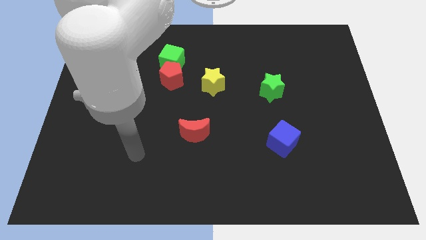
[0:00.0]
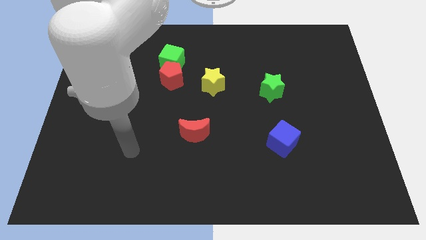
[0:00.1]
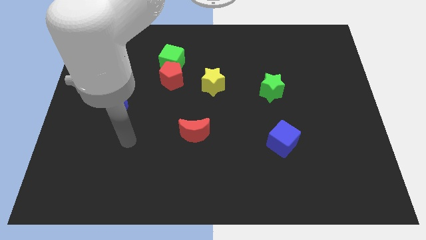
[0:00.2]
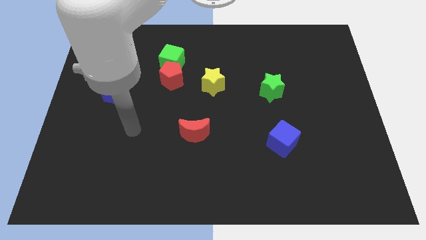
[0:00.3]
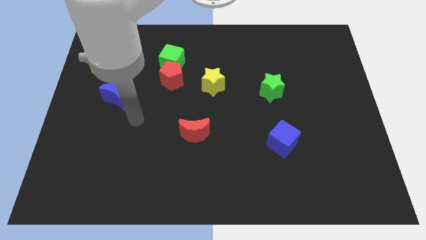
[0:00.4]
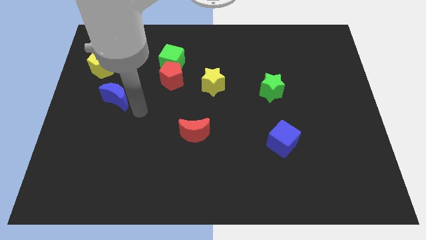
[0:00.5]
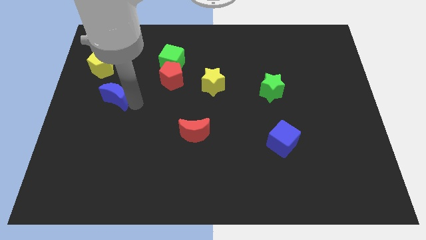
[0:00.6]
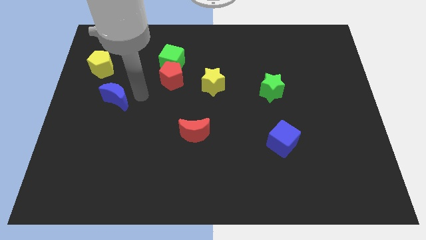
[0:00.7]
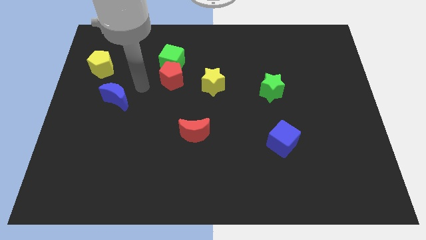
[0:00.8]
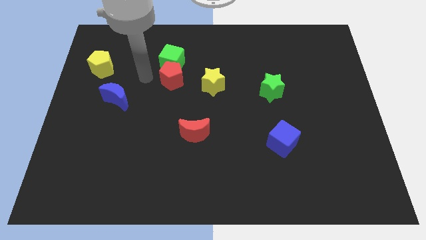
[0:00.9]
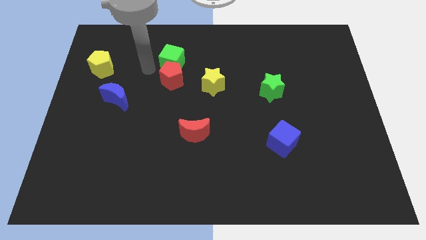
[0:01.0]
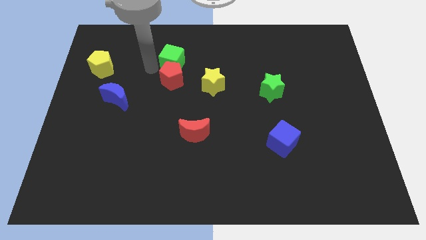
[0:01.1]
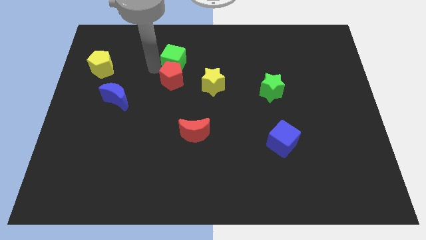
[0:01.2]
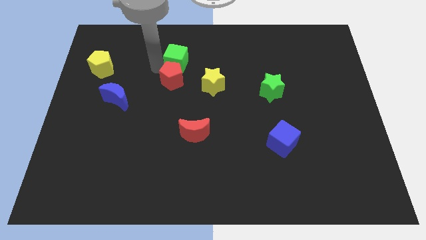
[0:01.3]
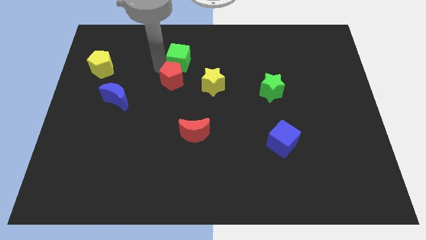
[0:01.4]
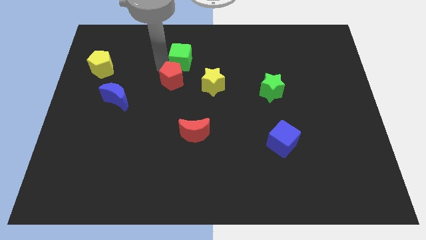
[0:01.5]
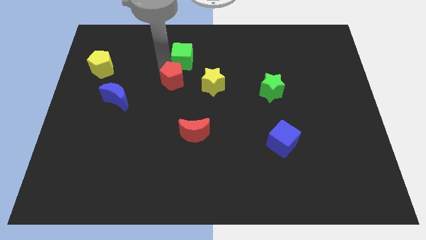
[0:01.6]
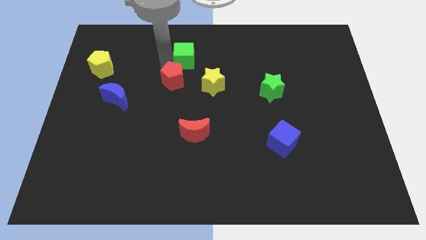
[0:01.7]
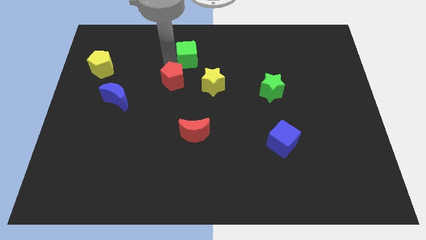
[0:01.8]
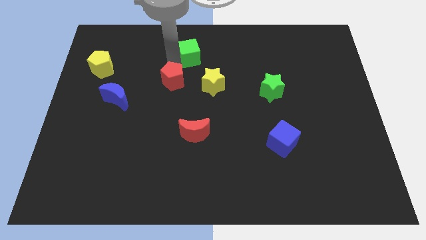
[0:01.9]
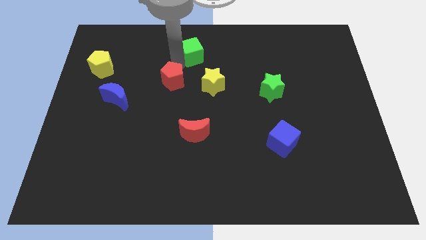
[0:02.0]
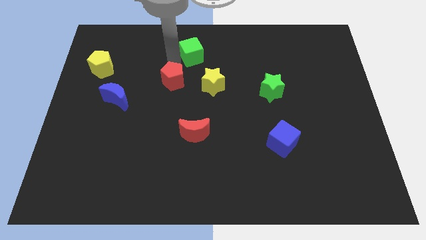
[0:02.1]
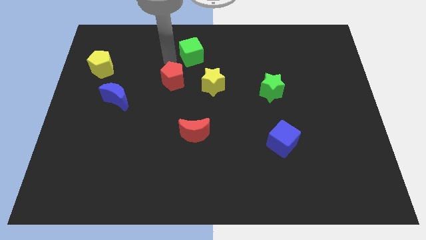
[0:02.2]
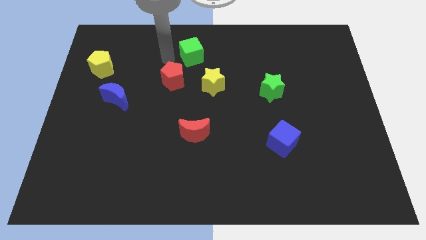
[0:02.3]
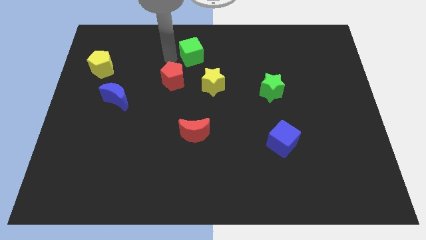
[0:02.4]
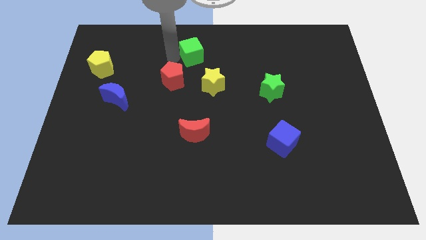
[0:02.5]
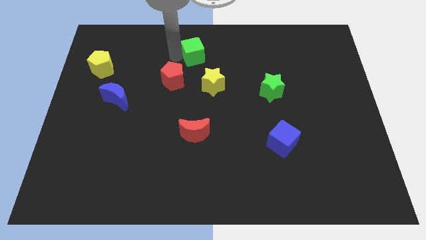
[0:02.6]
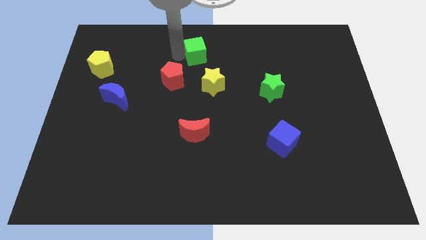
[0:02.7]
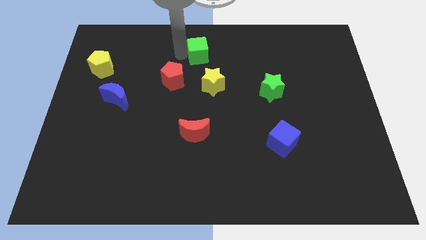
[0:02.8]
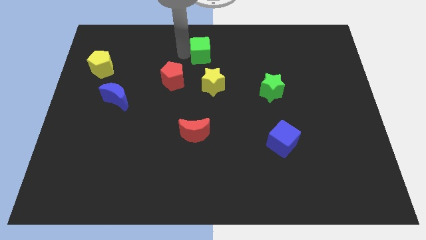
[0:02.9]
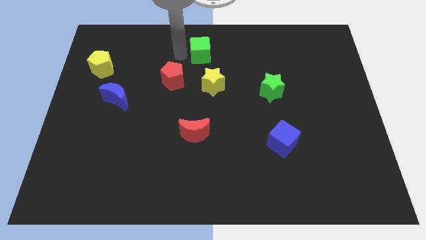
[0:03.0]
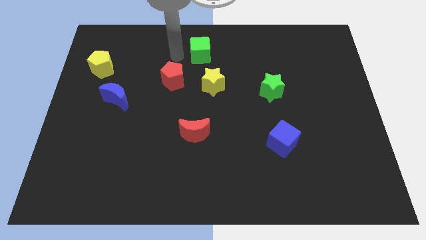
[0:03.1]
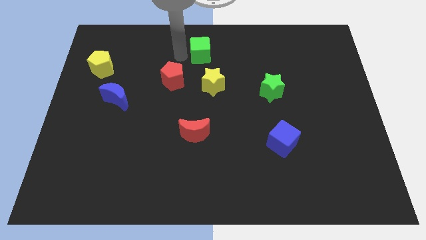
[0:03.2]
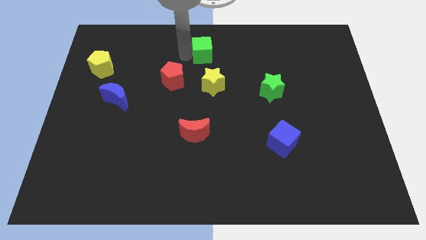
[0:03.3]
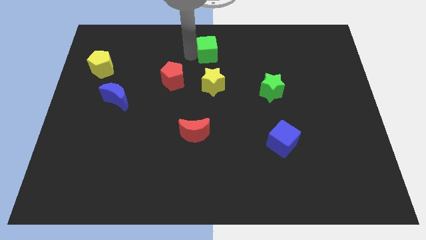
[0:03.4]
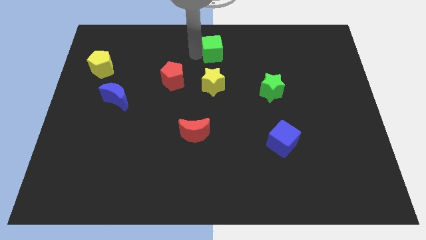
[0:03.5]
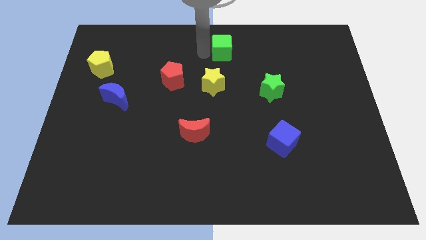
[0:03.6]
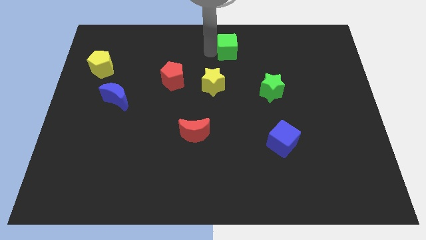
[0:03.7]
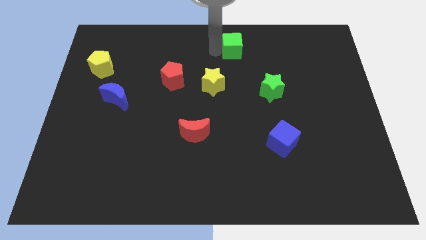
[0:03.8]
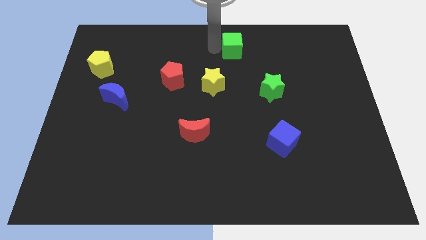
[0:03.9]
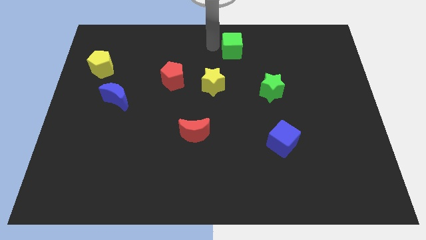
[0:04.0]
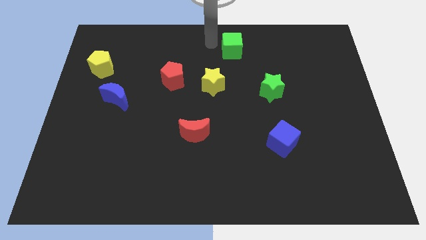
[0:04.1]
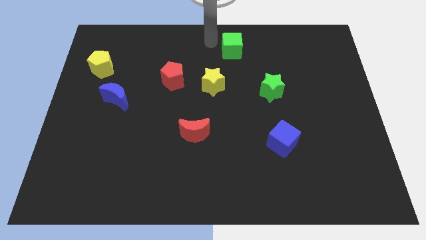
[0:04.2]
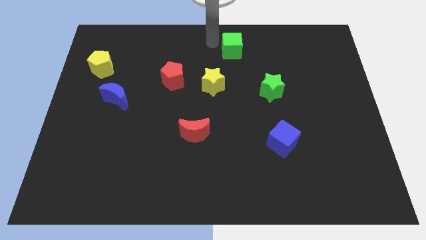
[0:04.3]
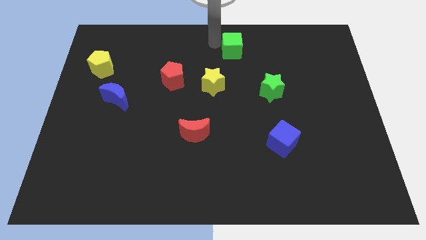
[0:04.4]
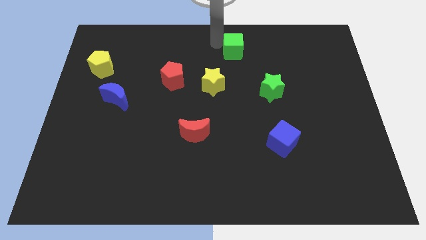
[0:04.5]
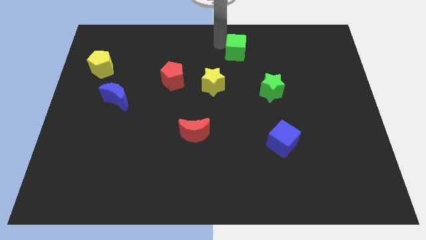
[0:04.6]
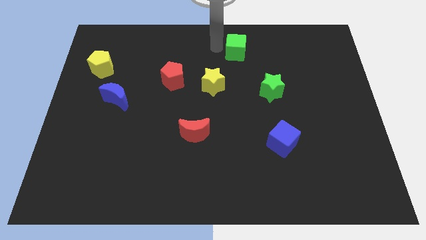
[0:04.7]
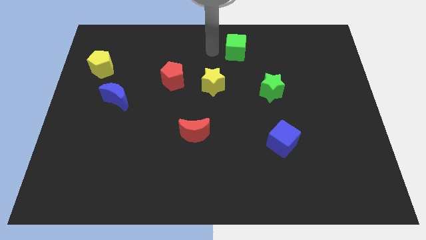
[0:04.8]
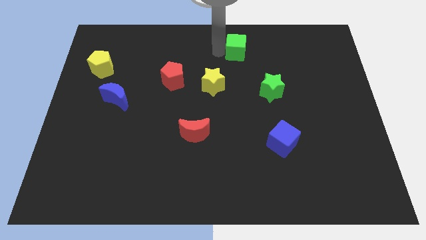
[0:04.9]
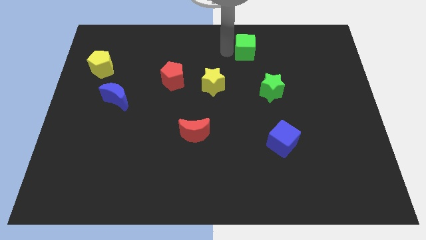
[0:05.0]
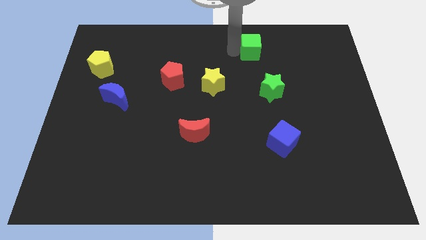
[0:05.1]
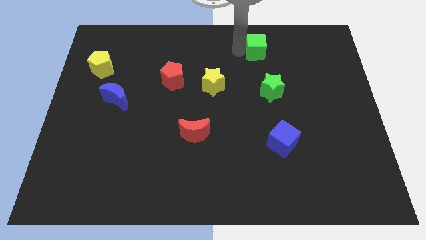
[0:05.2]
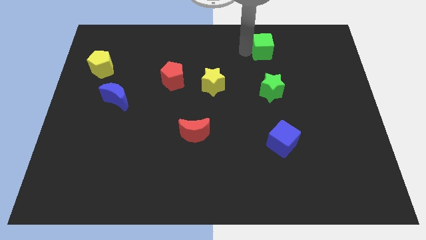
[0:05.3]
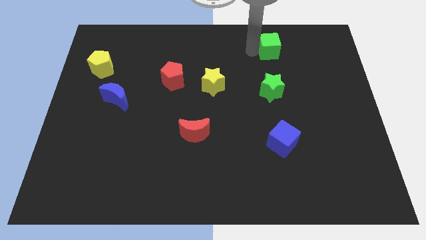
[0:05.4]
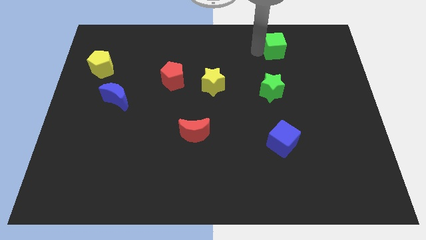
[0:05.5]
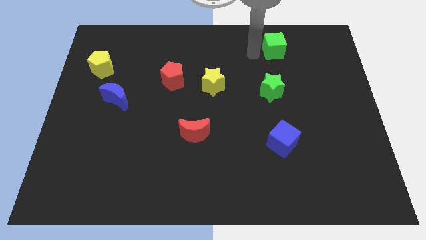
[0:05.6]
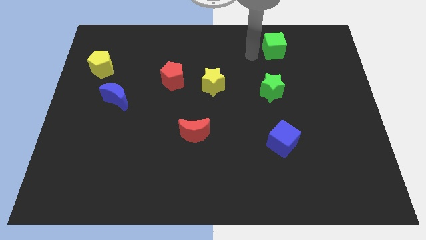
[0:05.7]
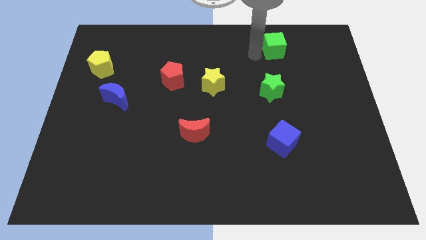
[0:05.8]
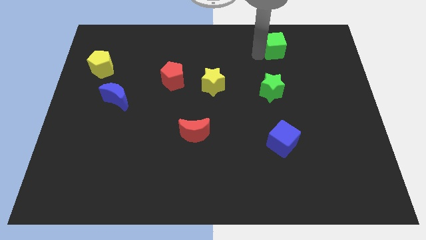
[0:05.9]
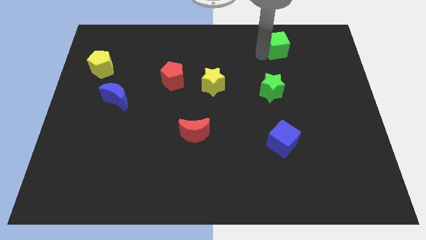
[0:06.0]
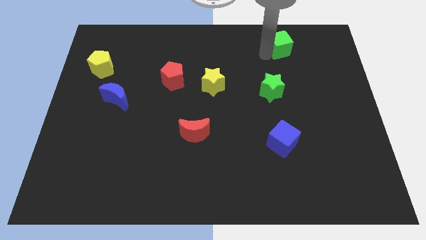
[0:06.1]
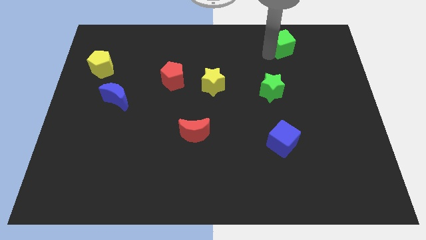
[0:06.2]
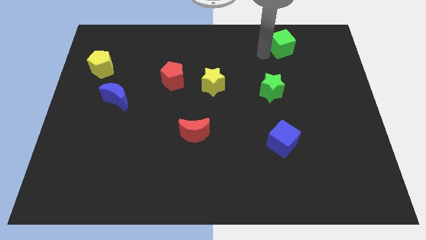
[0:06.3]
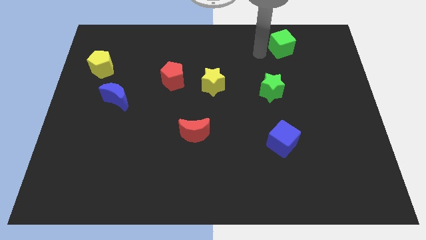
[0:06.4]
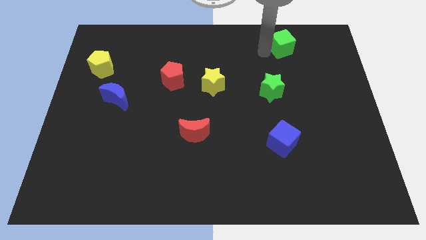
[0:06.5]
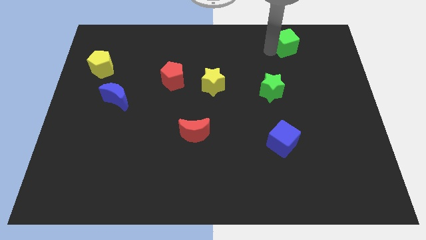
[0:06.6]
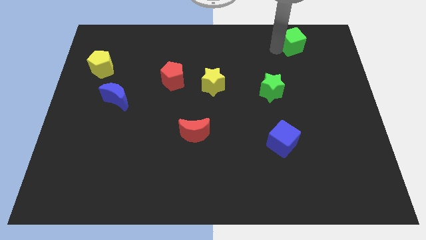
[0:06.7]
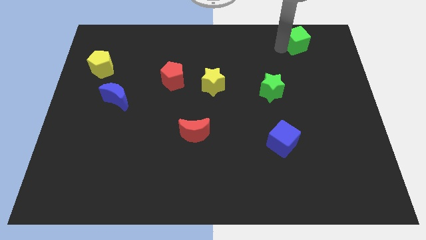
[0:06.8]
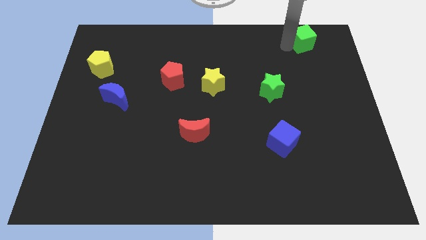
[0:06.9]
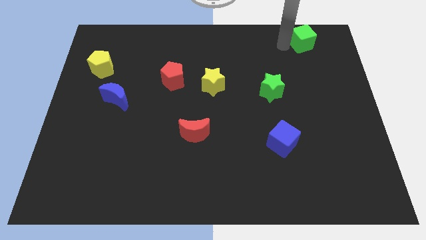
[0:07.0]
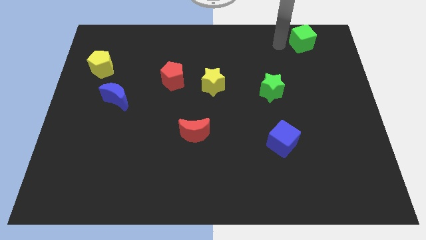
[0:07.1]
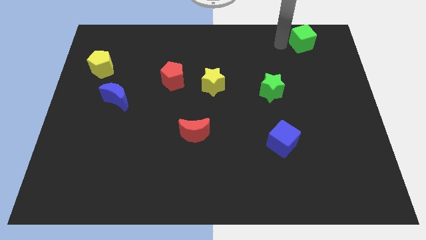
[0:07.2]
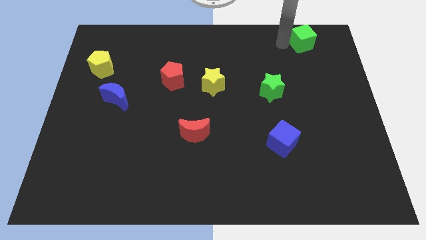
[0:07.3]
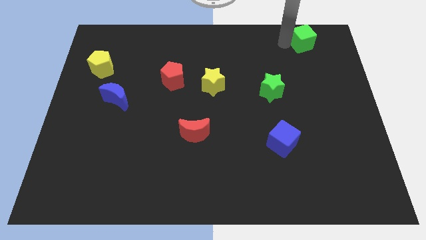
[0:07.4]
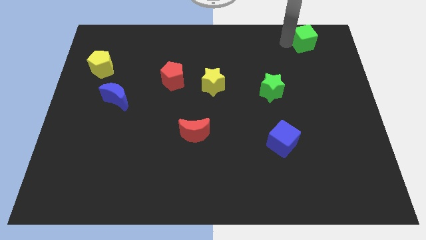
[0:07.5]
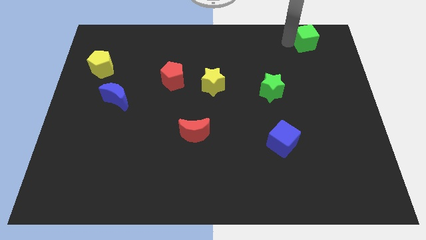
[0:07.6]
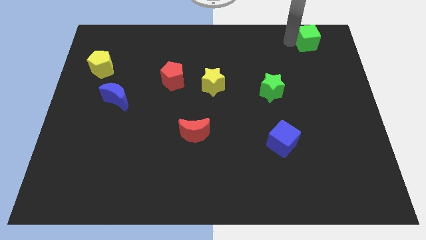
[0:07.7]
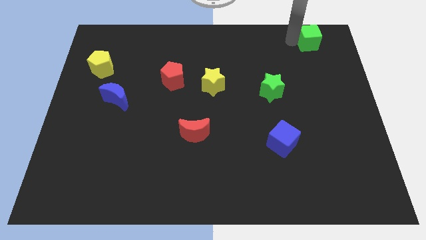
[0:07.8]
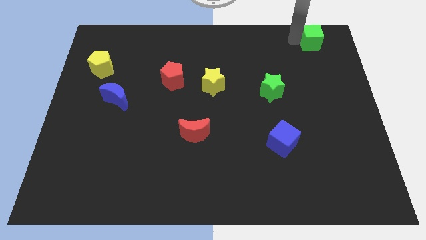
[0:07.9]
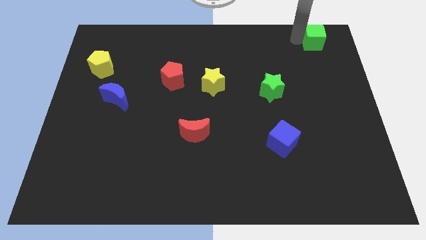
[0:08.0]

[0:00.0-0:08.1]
move the green cube to the top right corner
